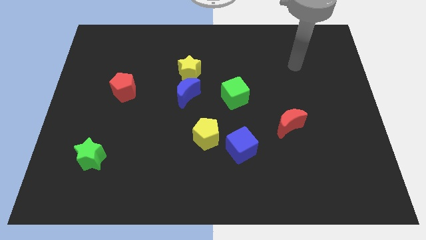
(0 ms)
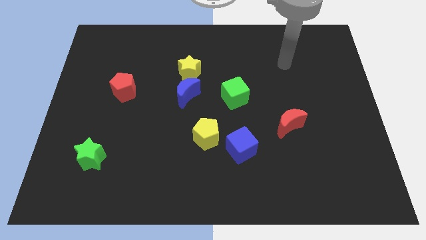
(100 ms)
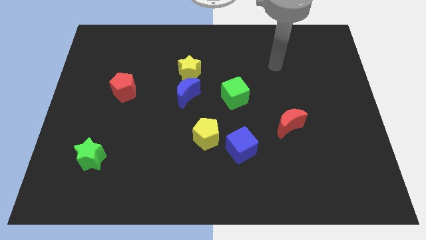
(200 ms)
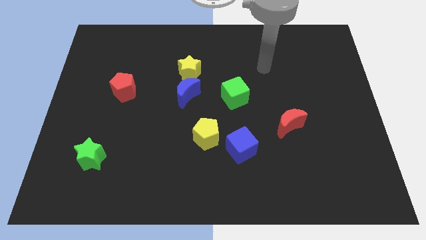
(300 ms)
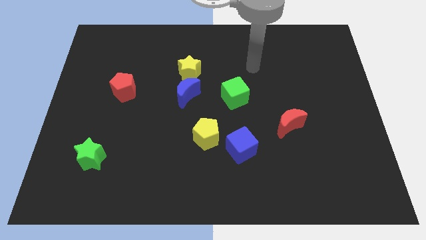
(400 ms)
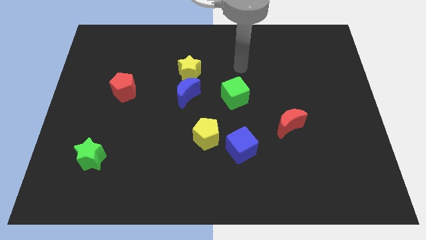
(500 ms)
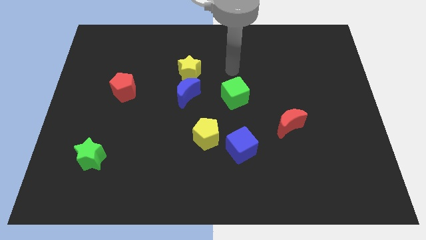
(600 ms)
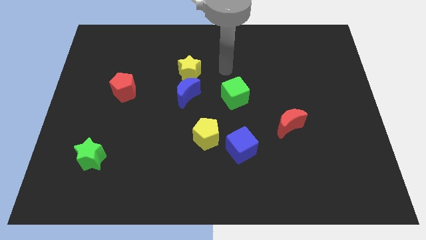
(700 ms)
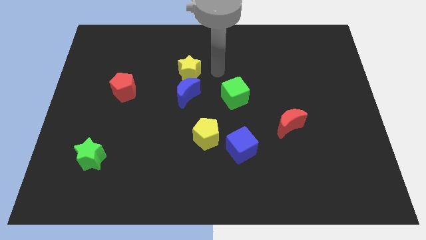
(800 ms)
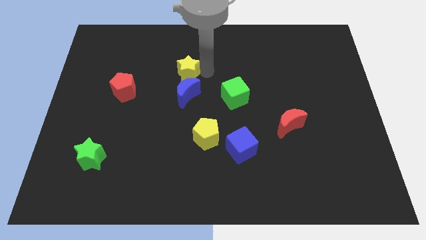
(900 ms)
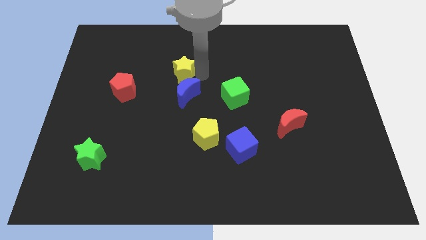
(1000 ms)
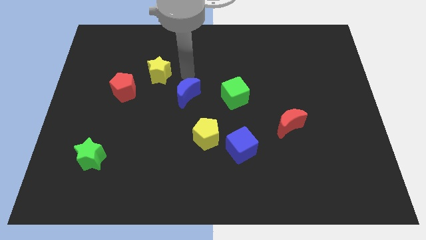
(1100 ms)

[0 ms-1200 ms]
move the blue moon away from the yellow star

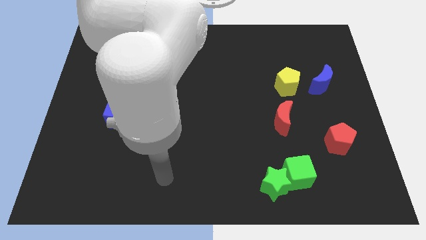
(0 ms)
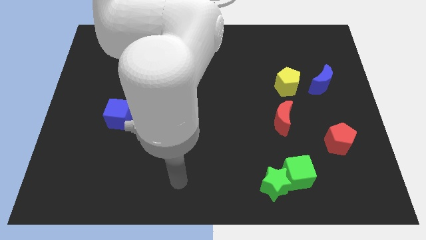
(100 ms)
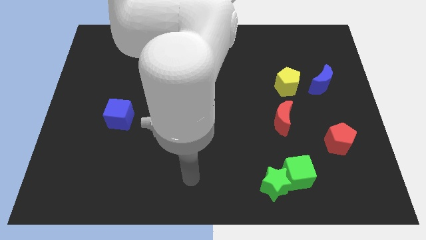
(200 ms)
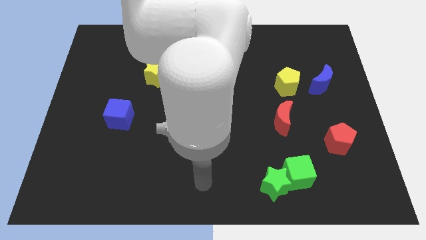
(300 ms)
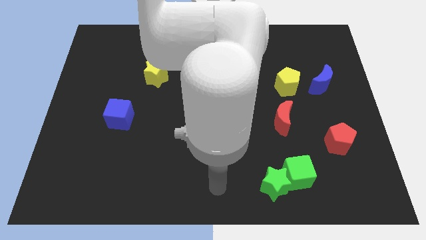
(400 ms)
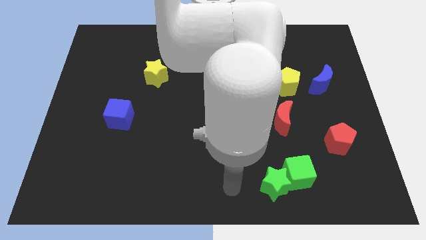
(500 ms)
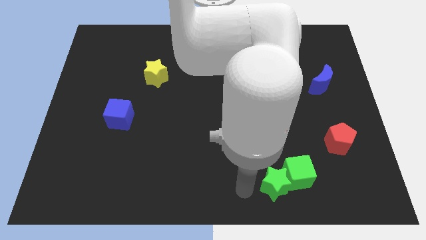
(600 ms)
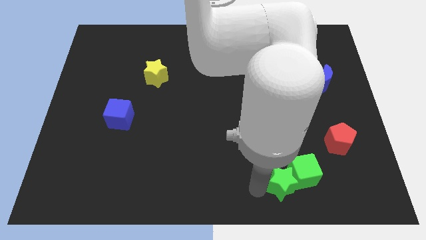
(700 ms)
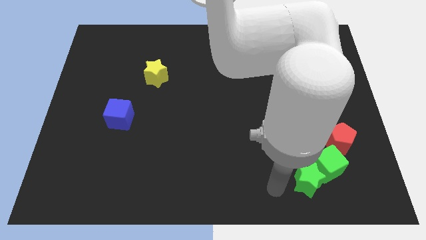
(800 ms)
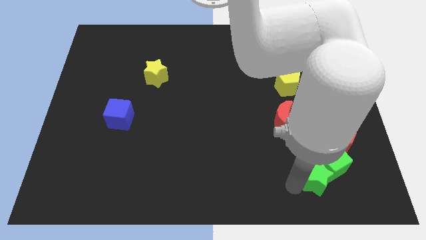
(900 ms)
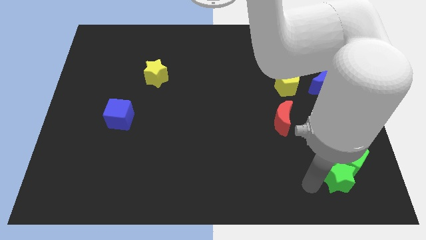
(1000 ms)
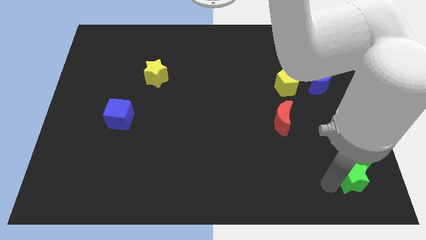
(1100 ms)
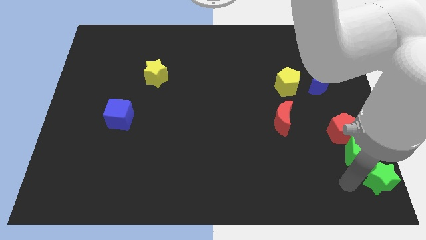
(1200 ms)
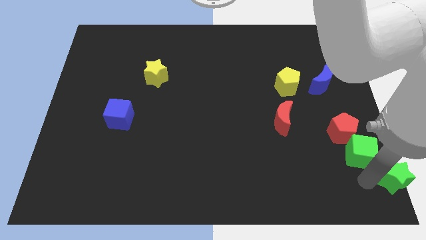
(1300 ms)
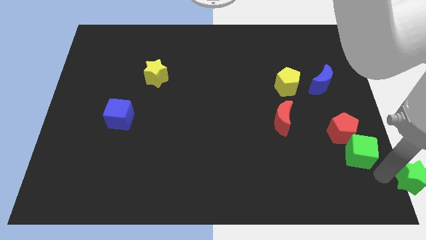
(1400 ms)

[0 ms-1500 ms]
pull the green cube apart from the green star

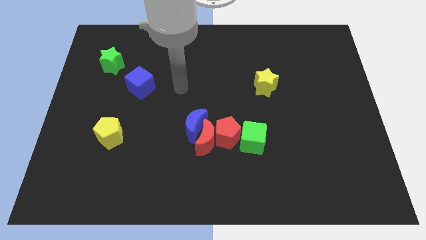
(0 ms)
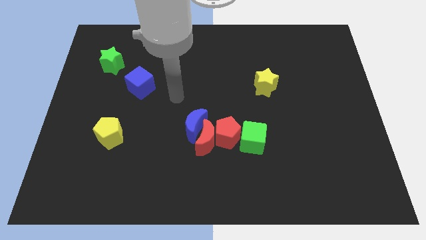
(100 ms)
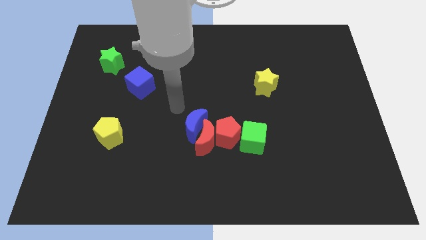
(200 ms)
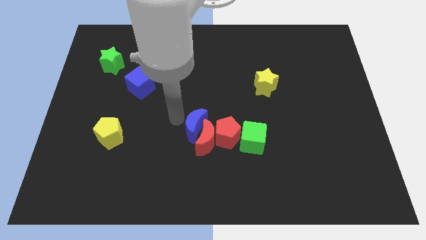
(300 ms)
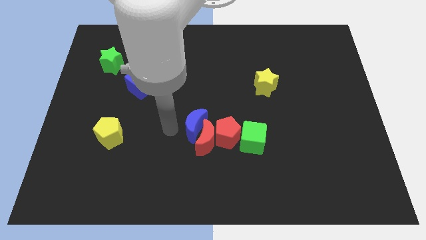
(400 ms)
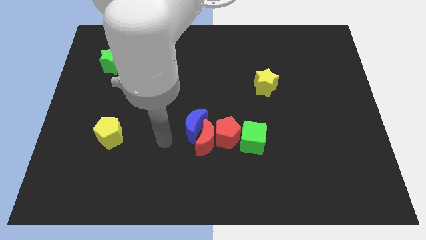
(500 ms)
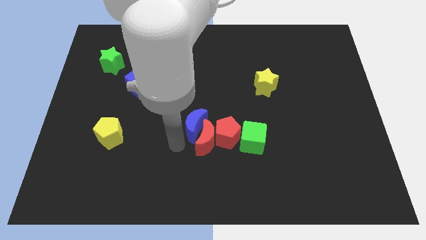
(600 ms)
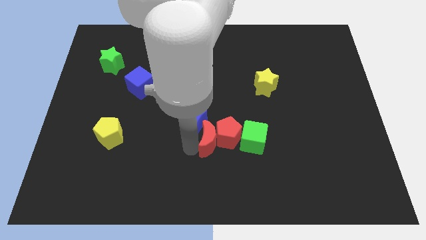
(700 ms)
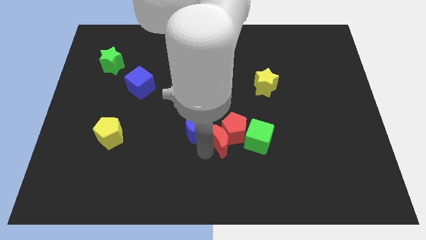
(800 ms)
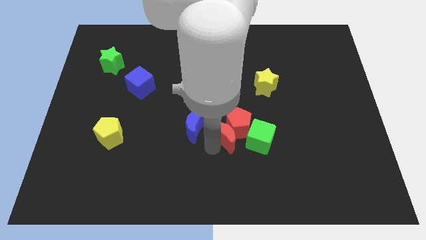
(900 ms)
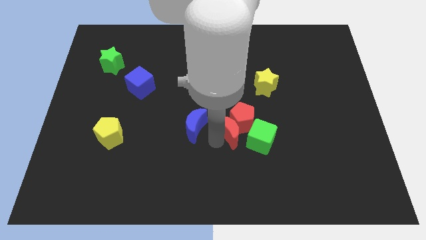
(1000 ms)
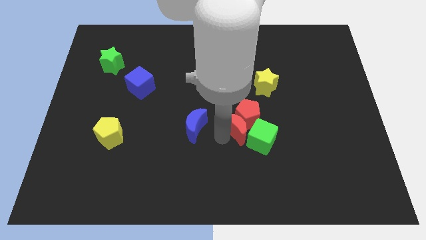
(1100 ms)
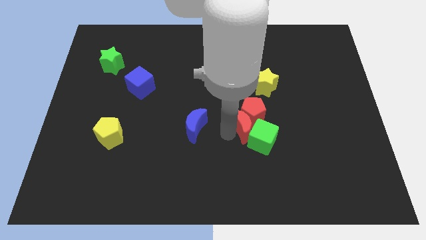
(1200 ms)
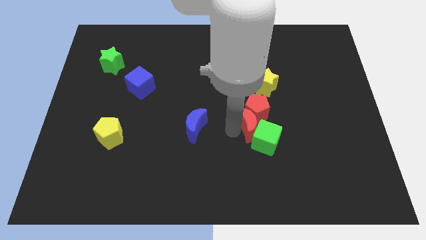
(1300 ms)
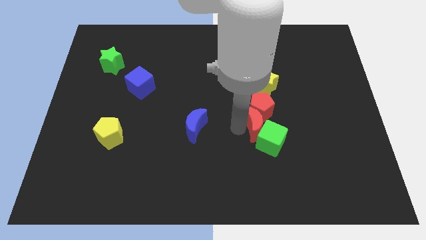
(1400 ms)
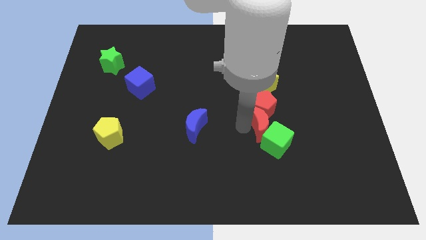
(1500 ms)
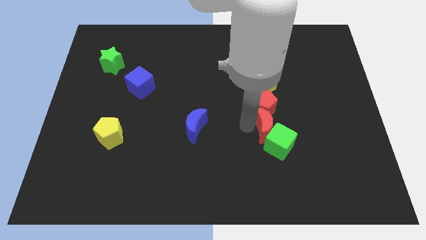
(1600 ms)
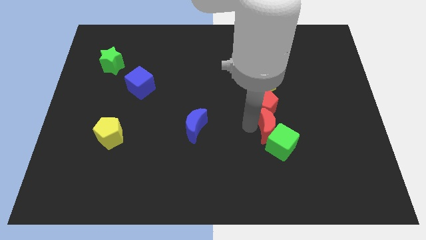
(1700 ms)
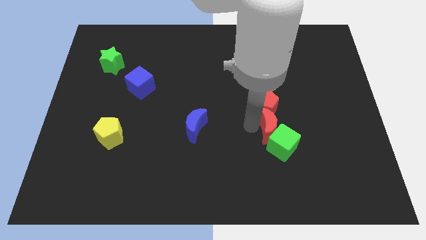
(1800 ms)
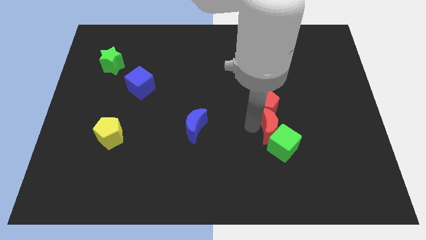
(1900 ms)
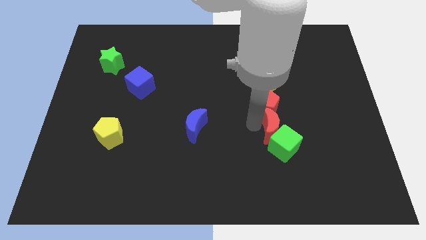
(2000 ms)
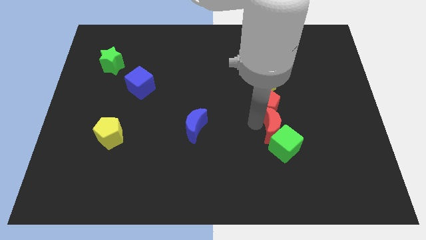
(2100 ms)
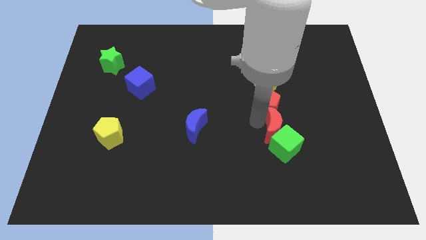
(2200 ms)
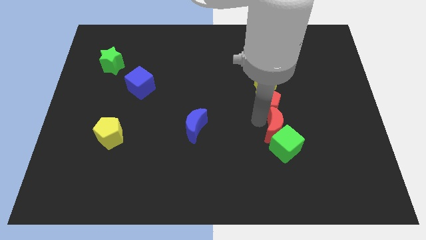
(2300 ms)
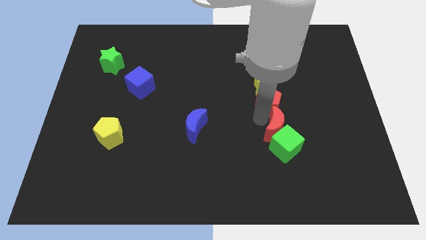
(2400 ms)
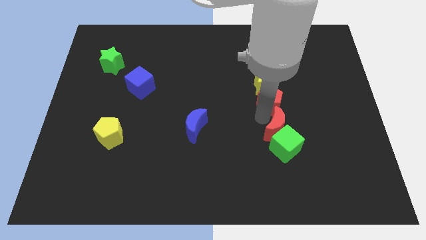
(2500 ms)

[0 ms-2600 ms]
pull the red pentagon apart from the group

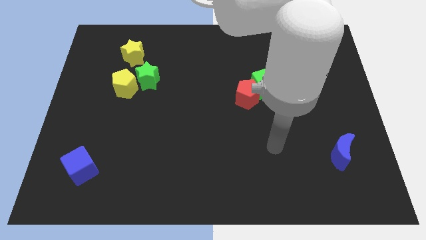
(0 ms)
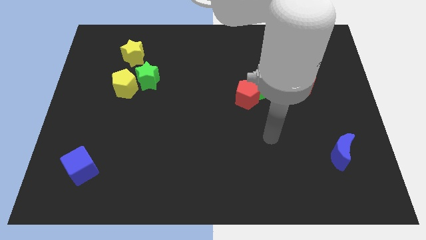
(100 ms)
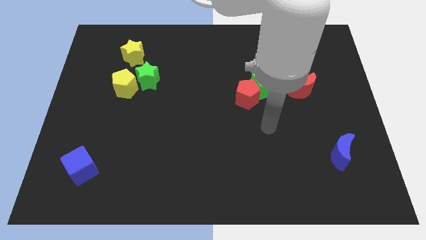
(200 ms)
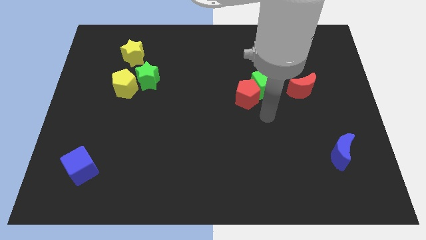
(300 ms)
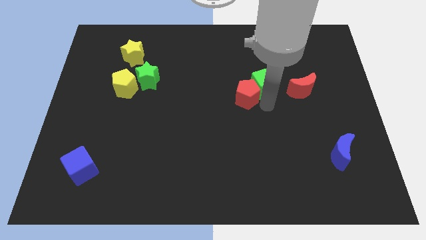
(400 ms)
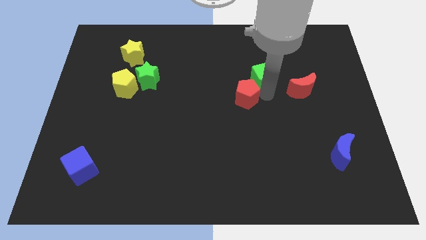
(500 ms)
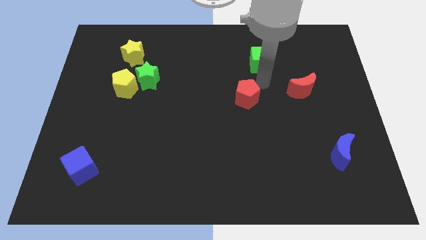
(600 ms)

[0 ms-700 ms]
move the red pentagon away from the green cube

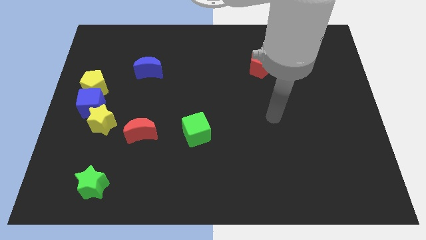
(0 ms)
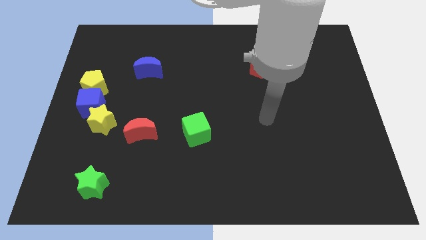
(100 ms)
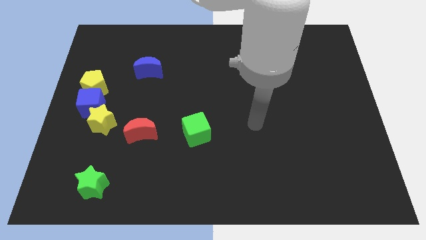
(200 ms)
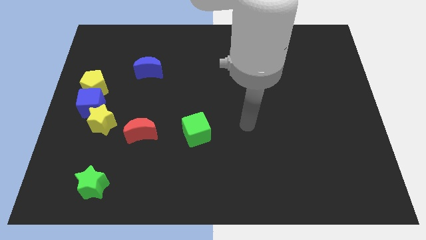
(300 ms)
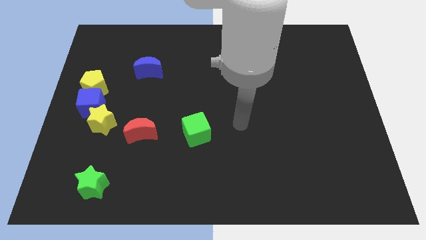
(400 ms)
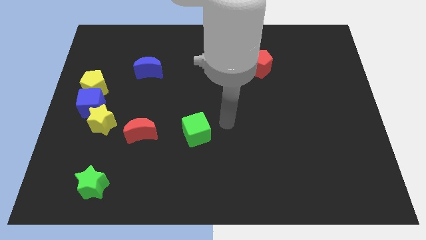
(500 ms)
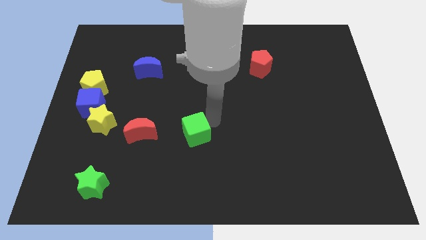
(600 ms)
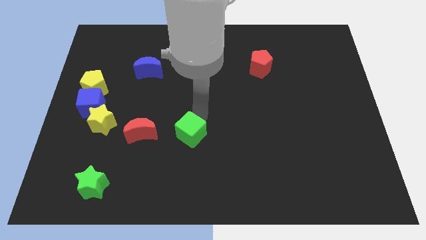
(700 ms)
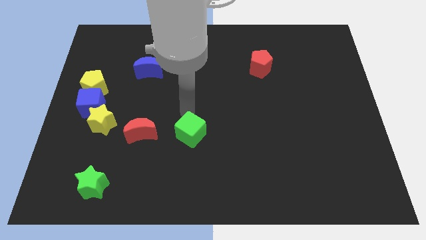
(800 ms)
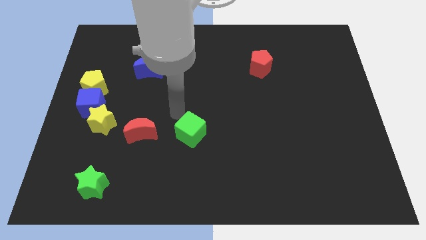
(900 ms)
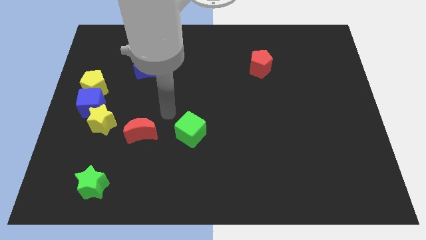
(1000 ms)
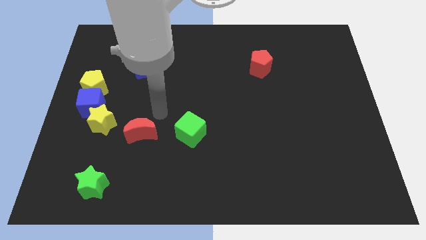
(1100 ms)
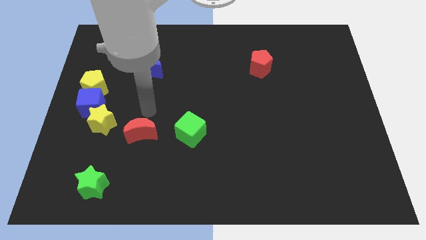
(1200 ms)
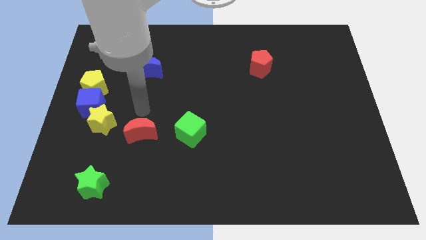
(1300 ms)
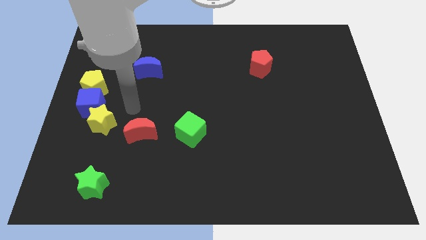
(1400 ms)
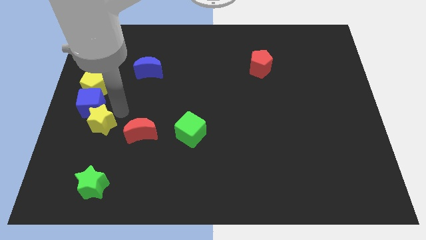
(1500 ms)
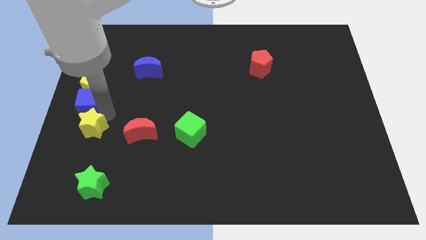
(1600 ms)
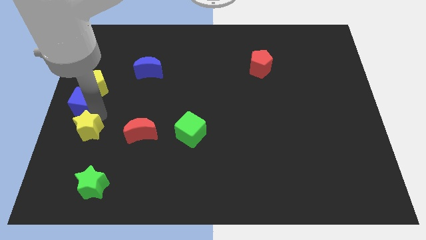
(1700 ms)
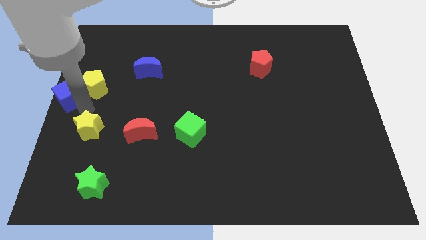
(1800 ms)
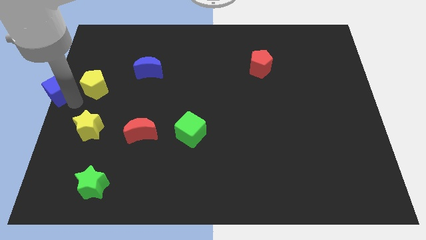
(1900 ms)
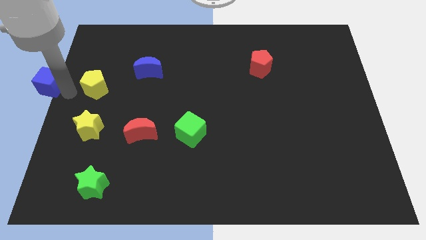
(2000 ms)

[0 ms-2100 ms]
move the yellow pentagon away from the blue cube

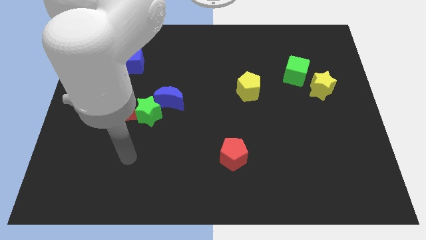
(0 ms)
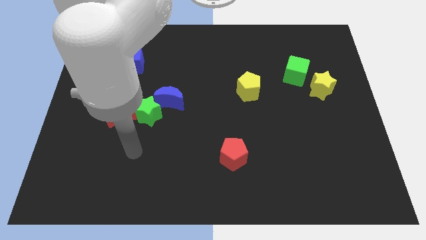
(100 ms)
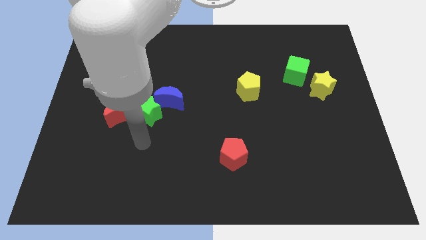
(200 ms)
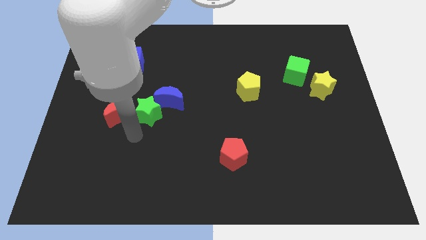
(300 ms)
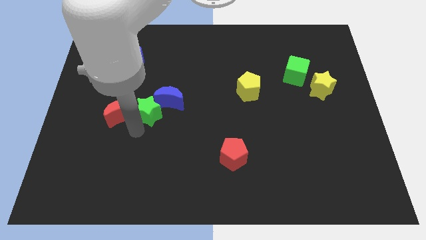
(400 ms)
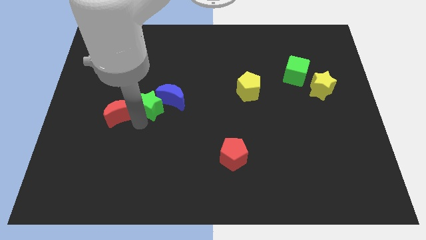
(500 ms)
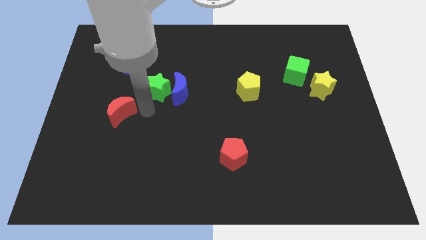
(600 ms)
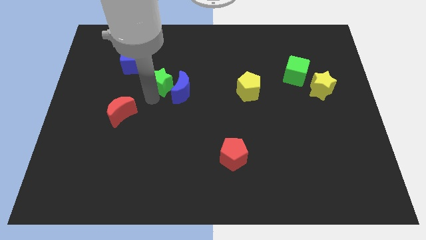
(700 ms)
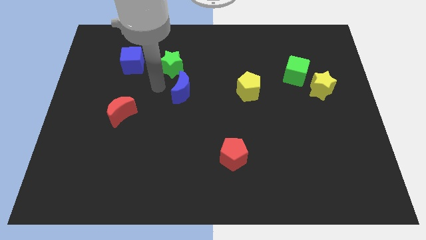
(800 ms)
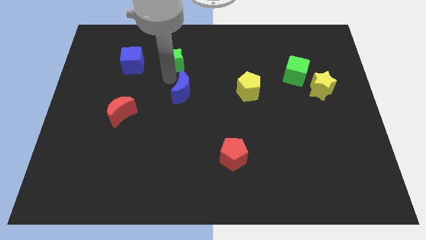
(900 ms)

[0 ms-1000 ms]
pull the blue moon apart from the green star

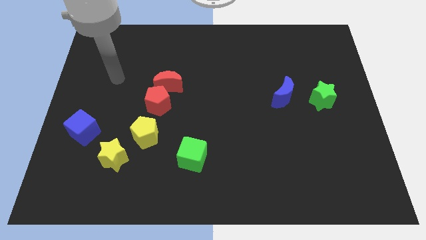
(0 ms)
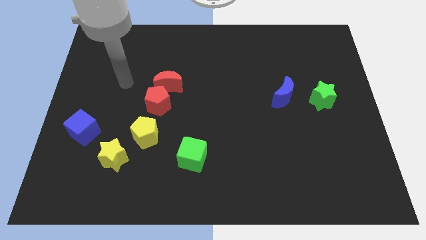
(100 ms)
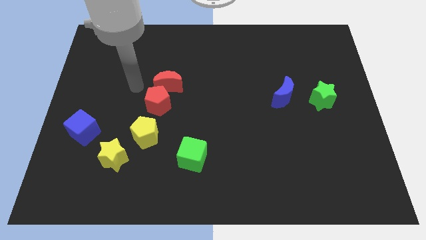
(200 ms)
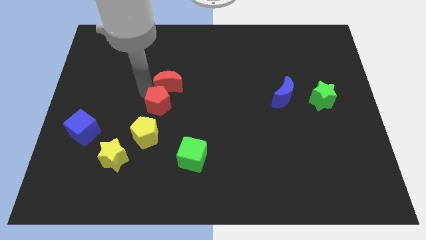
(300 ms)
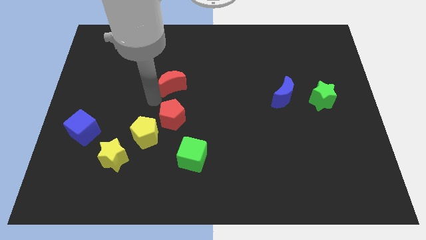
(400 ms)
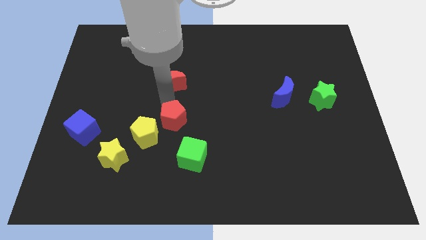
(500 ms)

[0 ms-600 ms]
pull the red moon apart from the red pentagon
